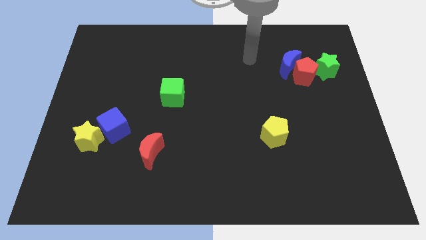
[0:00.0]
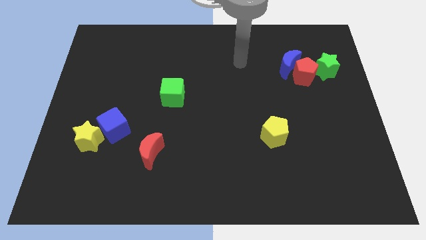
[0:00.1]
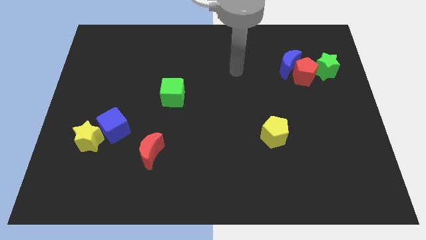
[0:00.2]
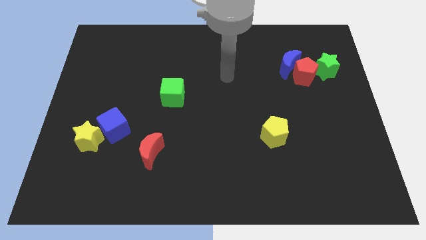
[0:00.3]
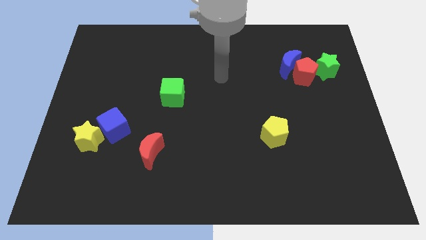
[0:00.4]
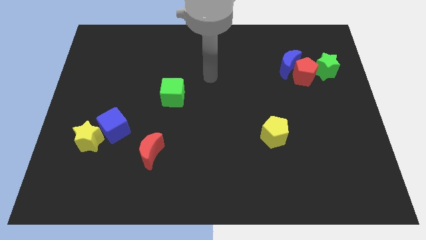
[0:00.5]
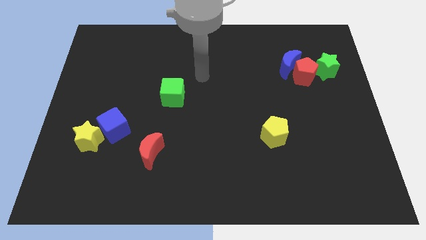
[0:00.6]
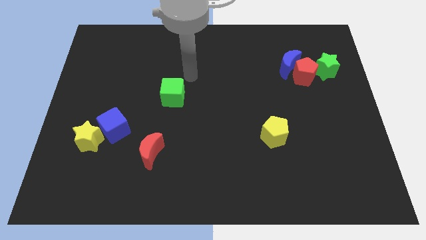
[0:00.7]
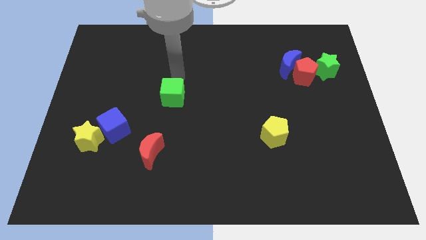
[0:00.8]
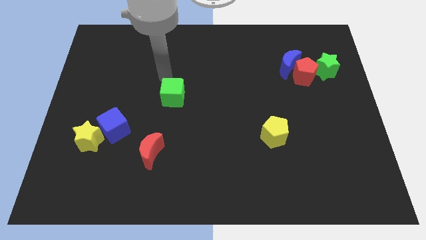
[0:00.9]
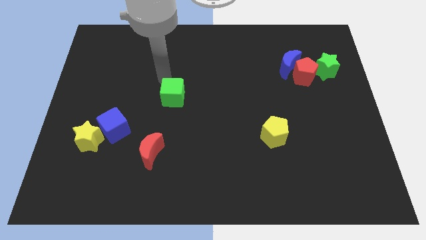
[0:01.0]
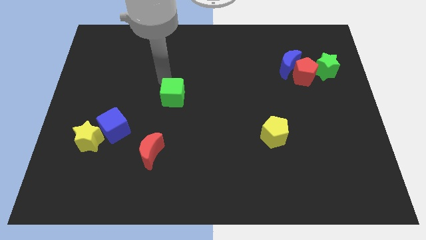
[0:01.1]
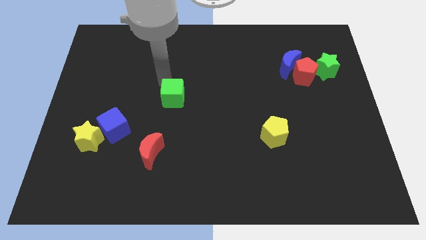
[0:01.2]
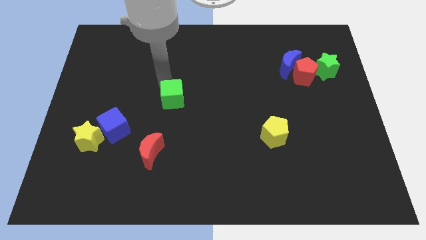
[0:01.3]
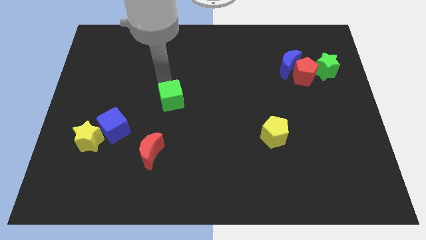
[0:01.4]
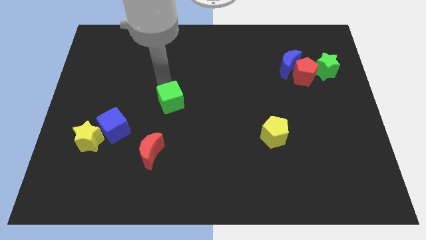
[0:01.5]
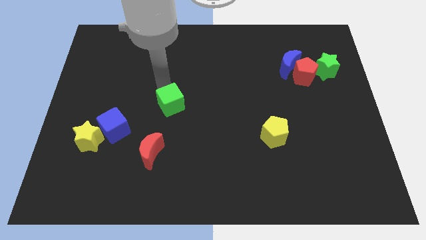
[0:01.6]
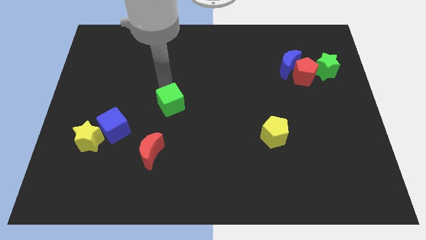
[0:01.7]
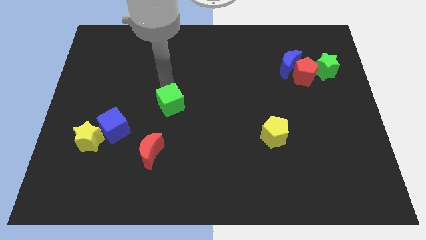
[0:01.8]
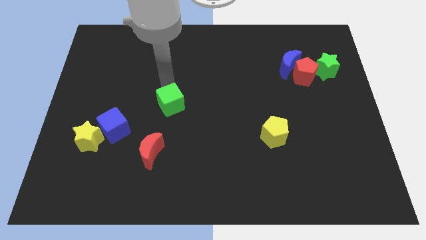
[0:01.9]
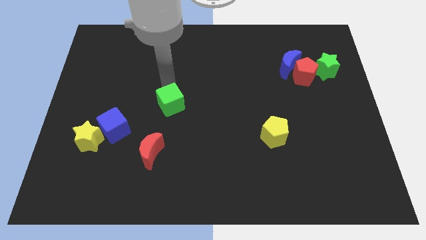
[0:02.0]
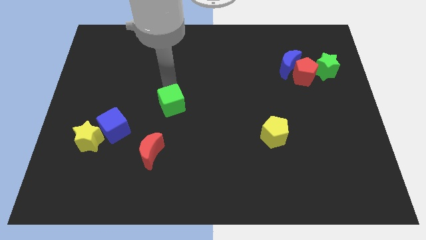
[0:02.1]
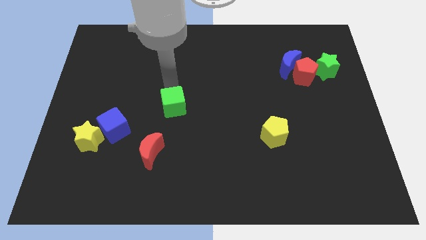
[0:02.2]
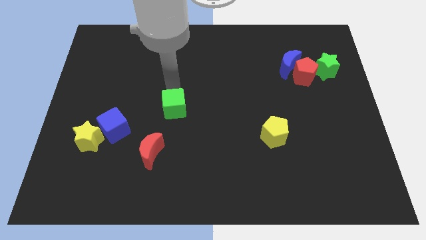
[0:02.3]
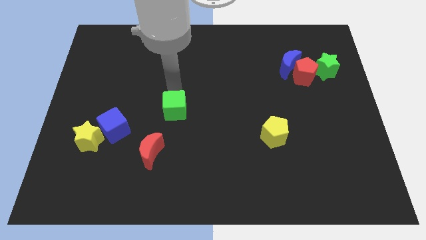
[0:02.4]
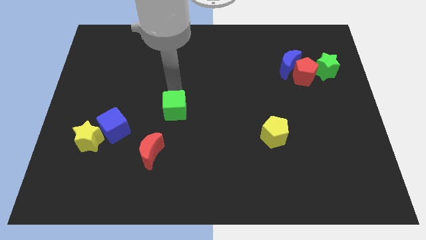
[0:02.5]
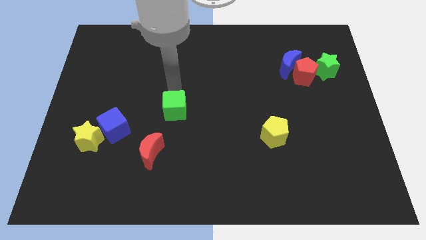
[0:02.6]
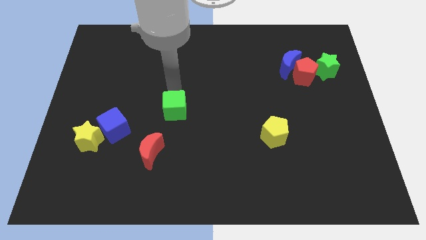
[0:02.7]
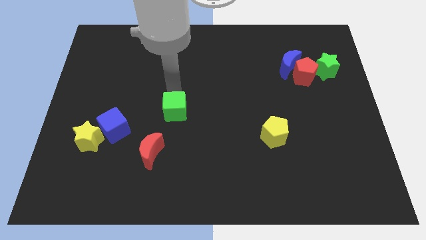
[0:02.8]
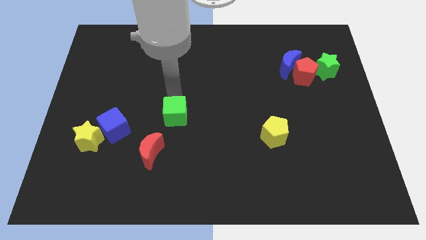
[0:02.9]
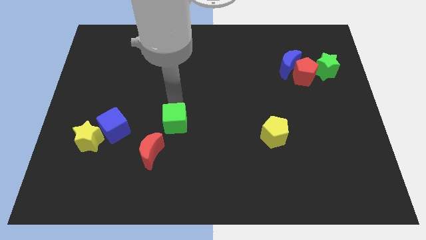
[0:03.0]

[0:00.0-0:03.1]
slightly move the green cube downwards

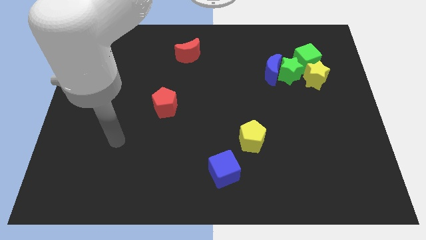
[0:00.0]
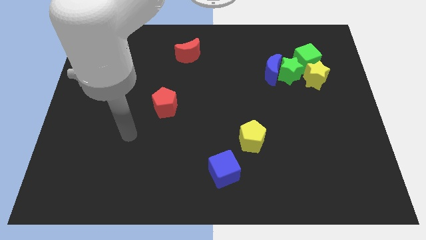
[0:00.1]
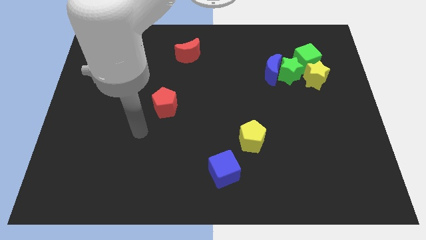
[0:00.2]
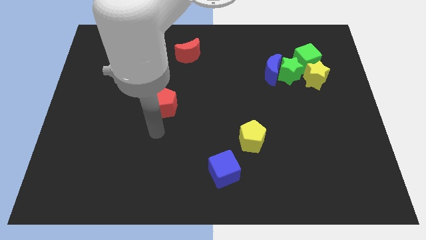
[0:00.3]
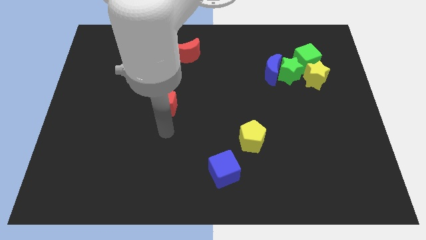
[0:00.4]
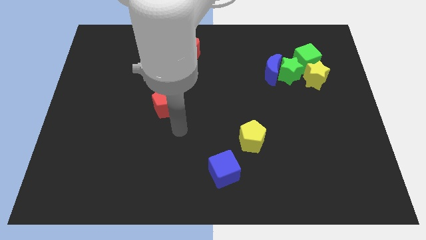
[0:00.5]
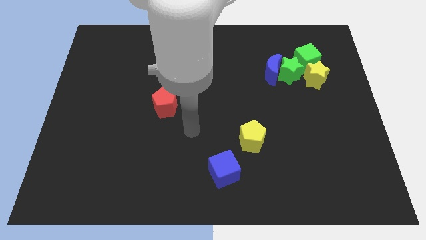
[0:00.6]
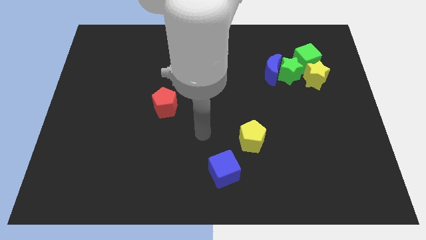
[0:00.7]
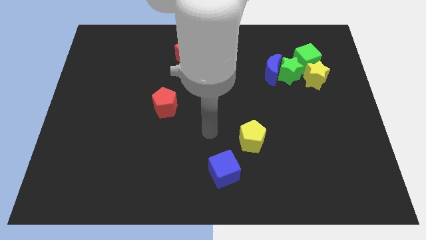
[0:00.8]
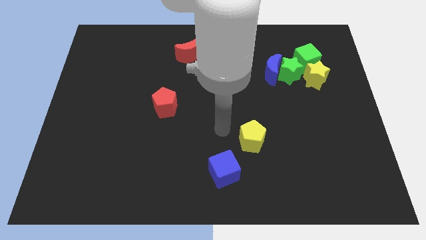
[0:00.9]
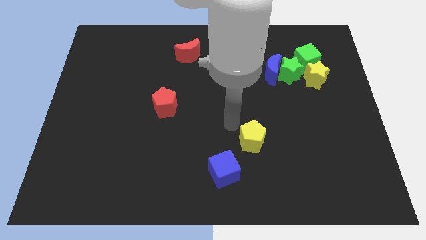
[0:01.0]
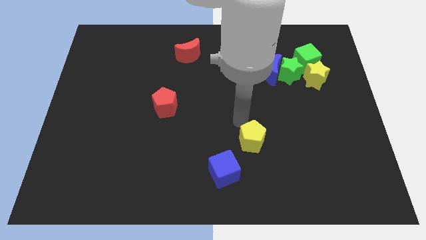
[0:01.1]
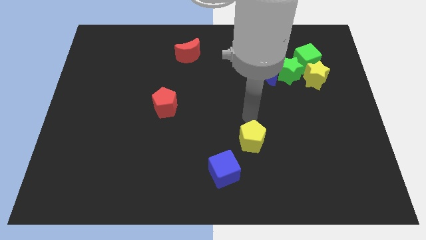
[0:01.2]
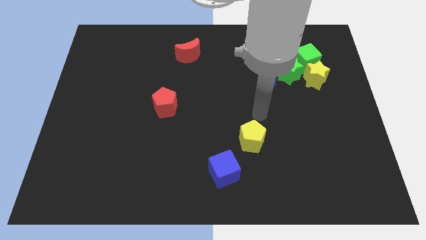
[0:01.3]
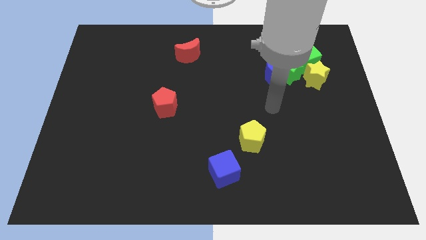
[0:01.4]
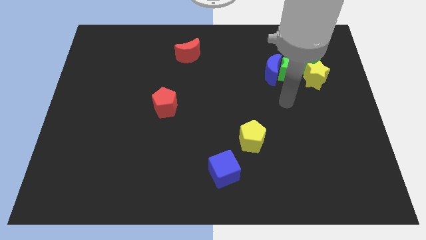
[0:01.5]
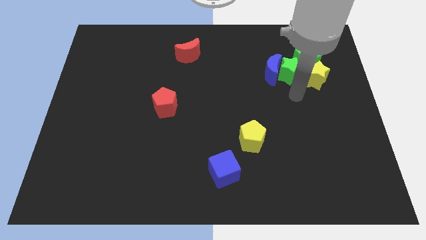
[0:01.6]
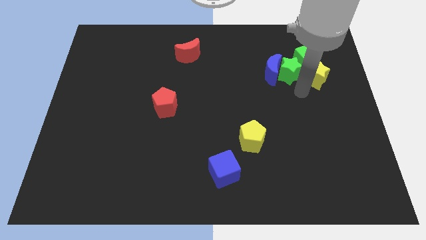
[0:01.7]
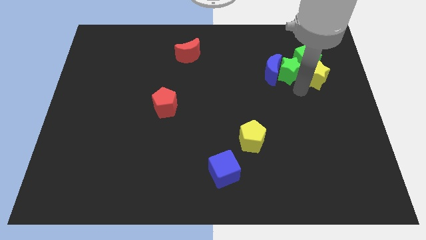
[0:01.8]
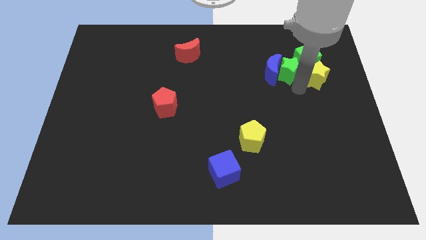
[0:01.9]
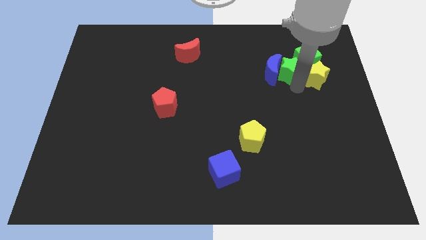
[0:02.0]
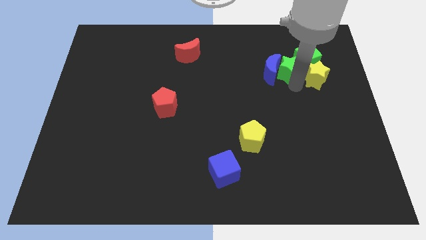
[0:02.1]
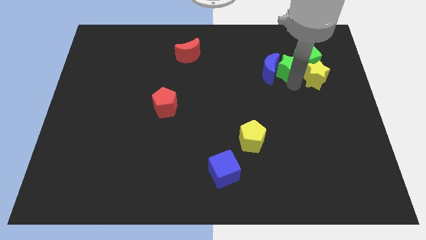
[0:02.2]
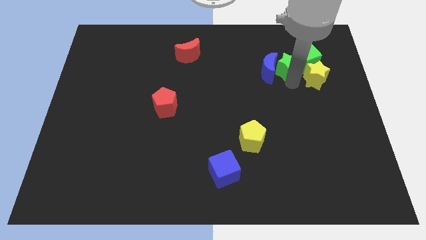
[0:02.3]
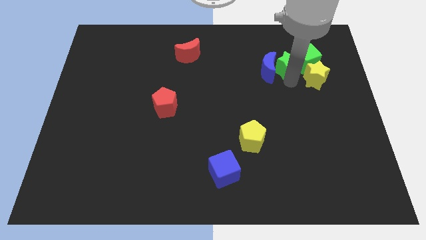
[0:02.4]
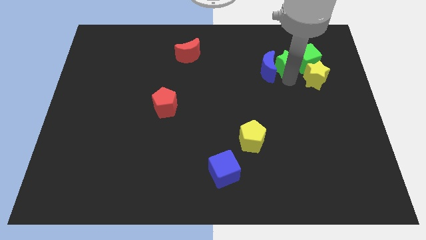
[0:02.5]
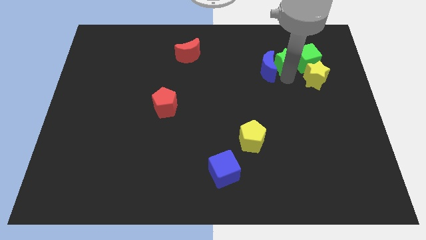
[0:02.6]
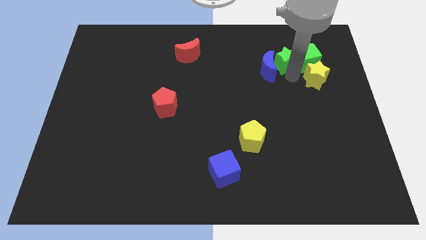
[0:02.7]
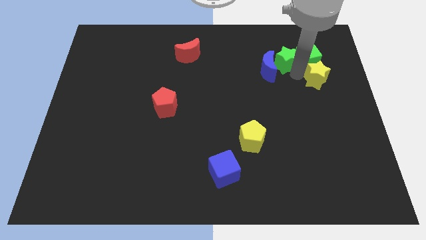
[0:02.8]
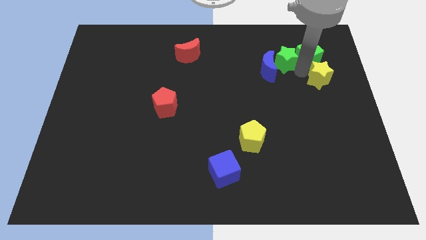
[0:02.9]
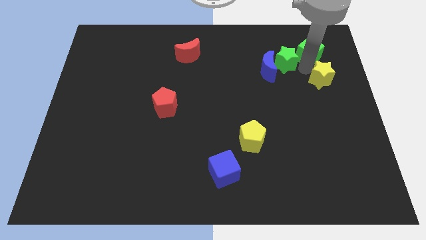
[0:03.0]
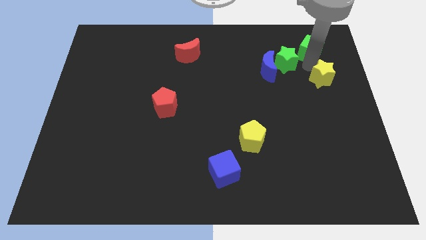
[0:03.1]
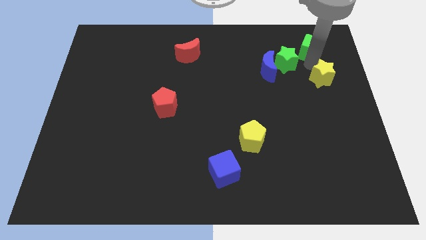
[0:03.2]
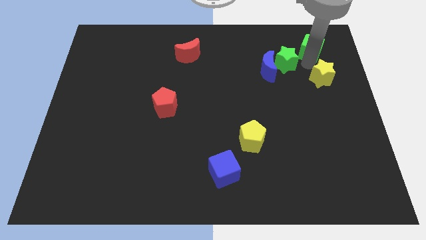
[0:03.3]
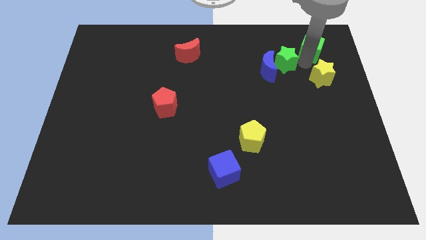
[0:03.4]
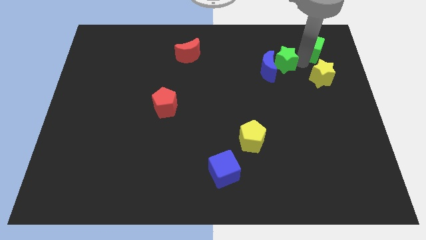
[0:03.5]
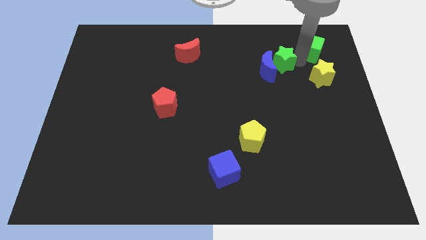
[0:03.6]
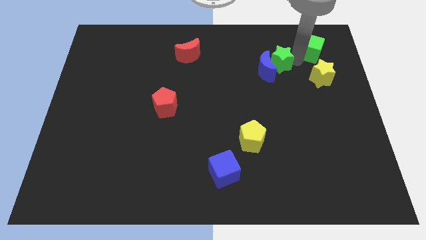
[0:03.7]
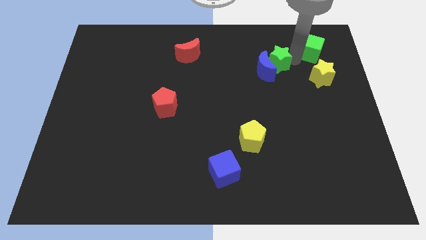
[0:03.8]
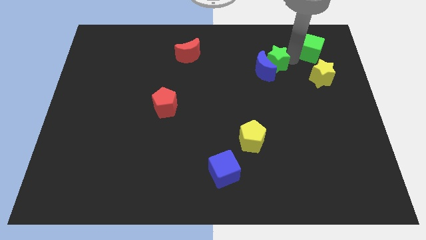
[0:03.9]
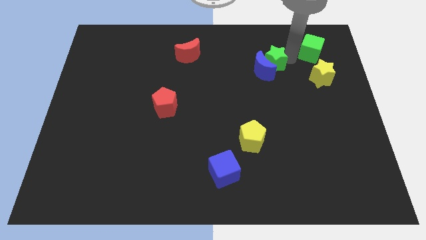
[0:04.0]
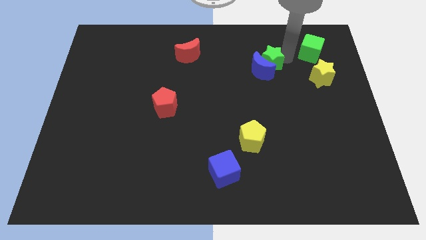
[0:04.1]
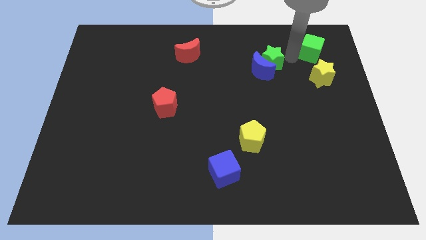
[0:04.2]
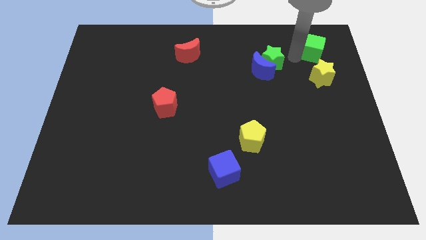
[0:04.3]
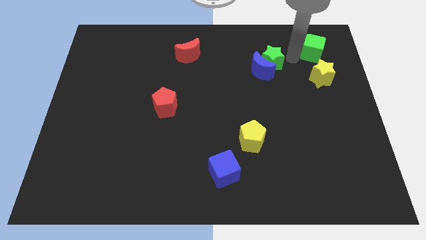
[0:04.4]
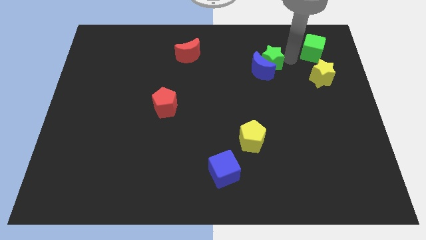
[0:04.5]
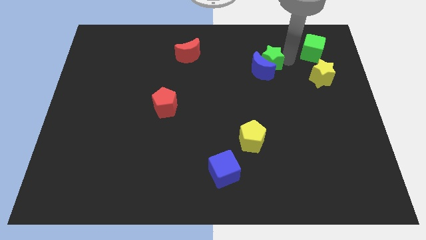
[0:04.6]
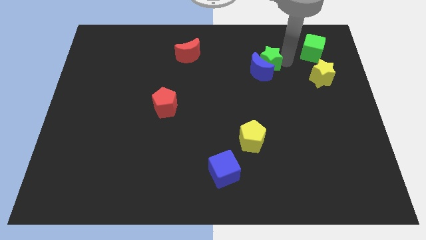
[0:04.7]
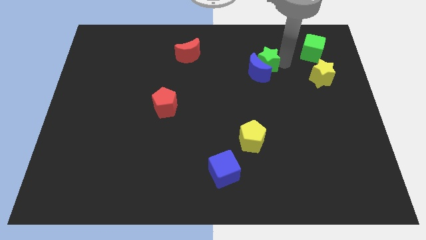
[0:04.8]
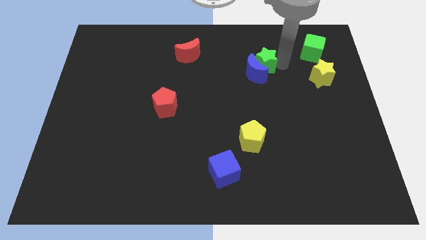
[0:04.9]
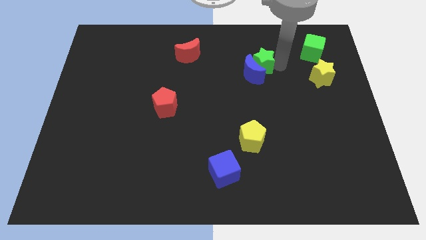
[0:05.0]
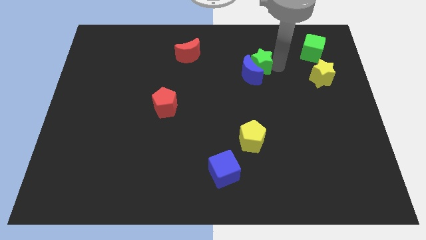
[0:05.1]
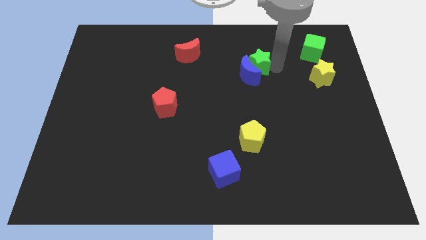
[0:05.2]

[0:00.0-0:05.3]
slightly slide the green star left

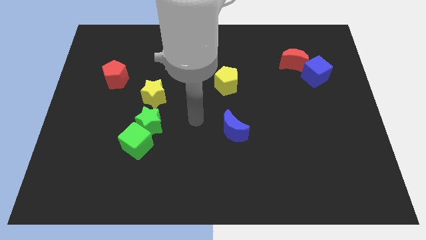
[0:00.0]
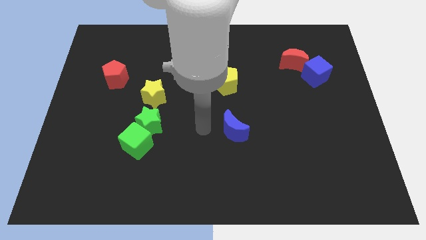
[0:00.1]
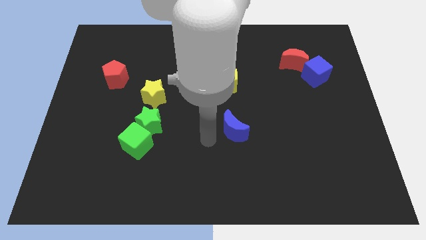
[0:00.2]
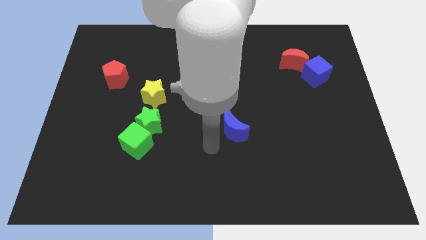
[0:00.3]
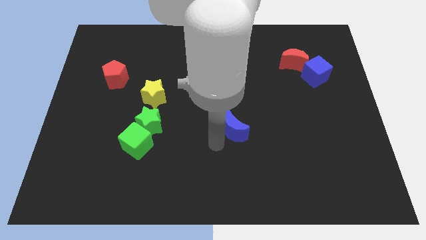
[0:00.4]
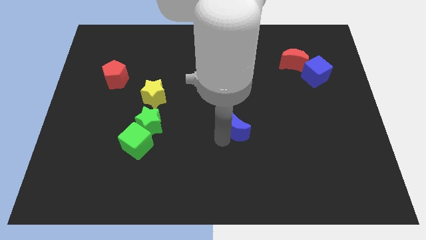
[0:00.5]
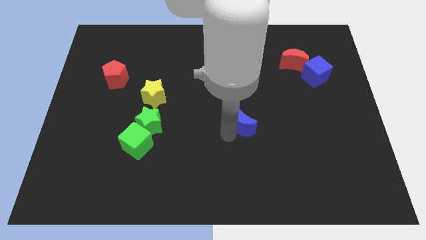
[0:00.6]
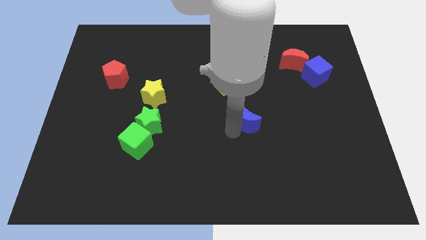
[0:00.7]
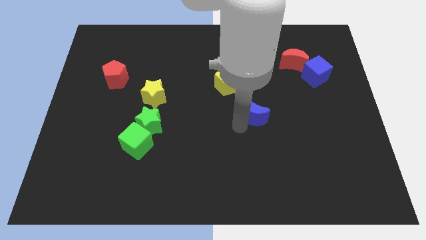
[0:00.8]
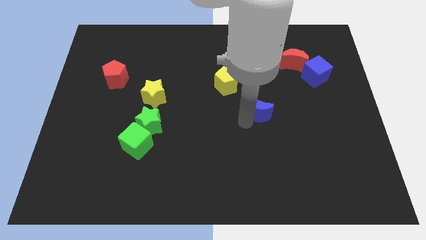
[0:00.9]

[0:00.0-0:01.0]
slide the blue moon a little bit upwards and to the right diagonally
